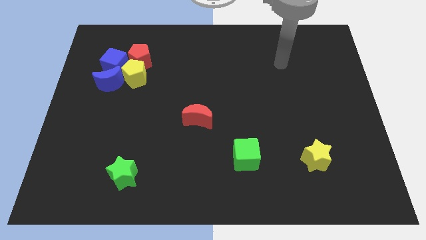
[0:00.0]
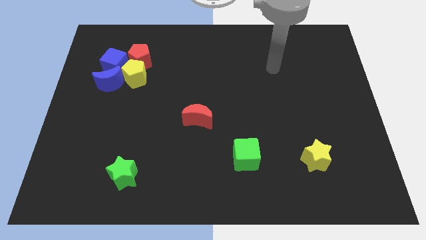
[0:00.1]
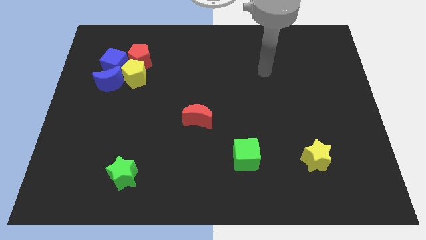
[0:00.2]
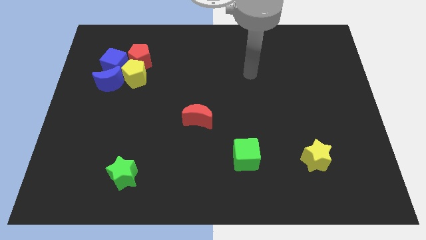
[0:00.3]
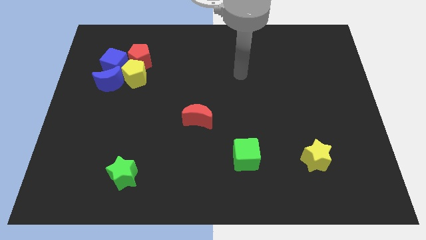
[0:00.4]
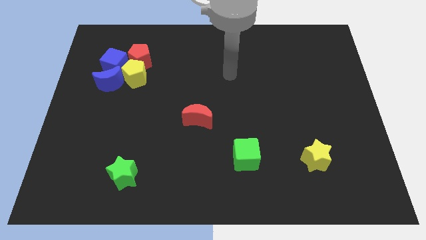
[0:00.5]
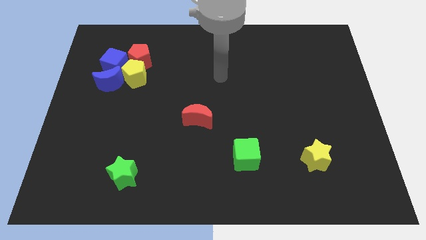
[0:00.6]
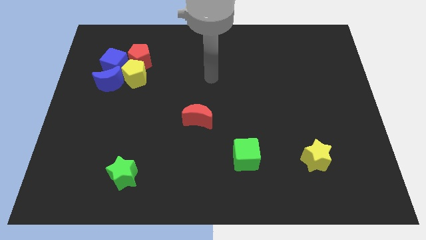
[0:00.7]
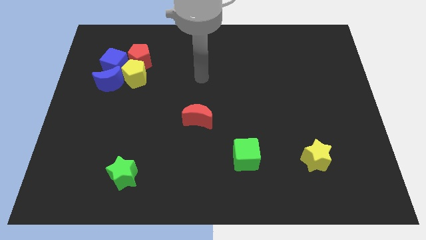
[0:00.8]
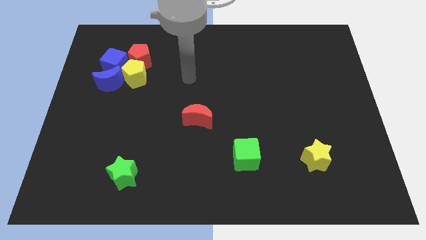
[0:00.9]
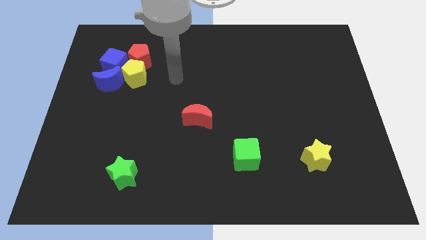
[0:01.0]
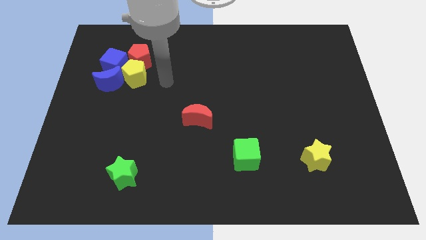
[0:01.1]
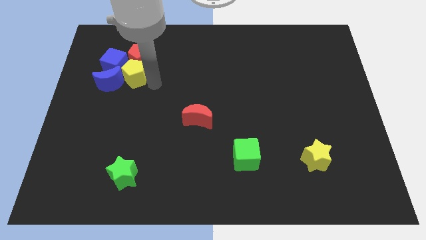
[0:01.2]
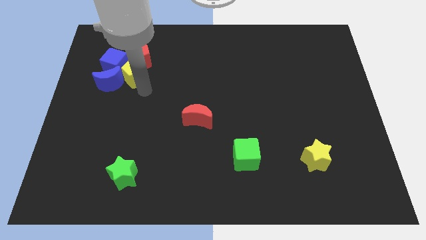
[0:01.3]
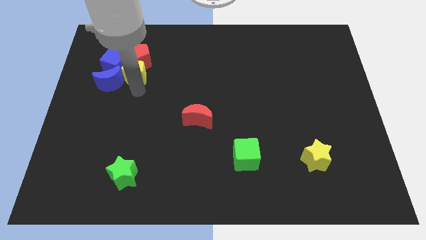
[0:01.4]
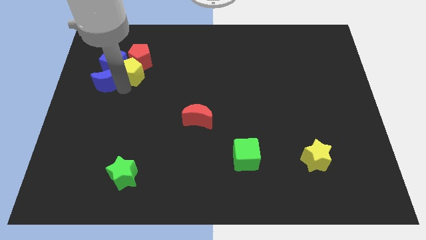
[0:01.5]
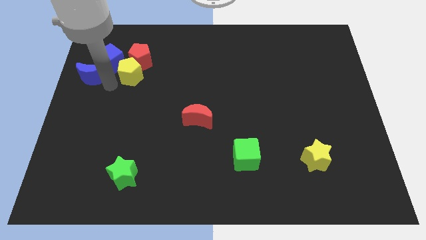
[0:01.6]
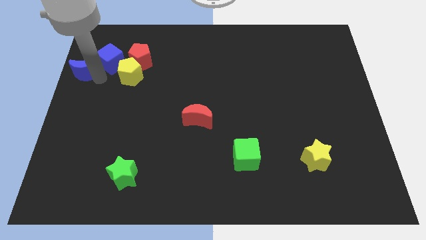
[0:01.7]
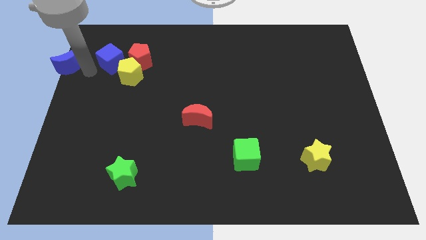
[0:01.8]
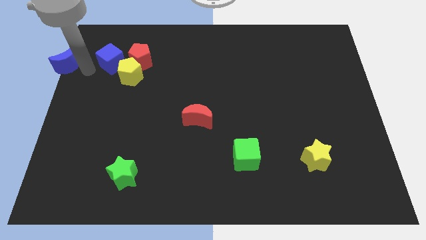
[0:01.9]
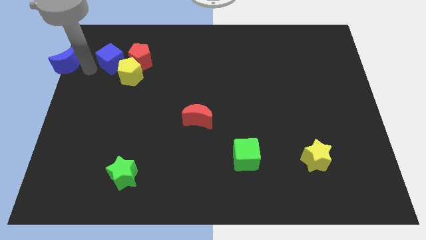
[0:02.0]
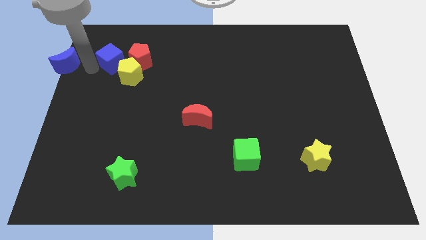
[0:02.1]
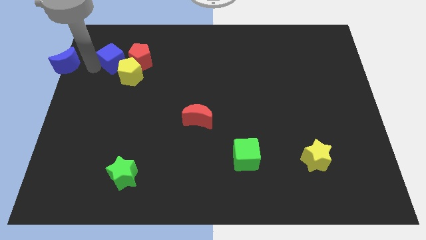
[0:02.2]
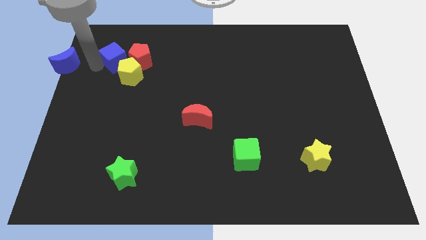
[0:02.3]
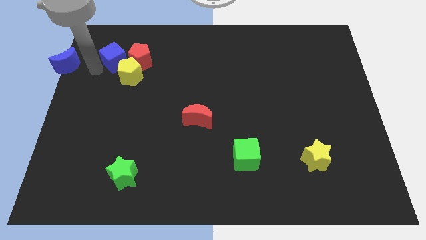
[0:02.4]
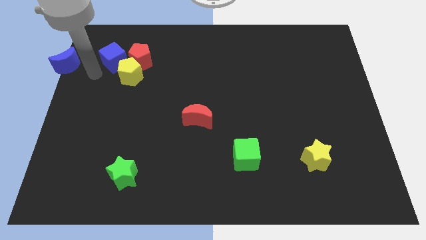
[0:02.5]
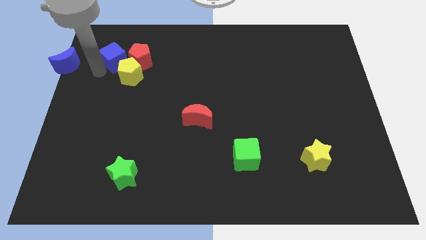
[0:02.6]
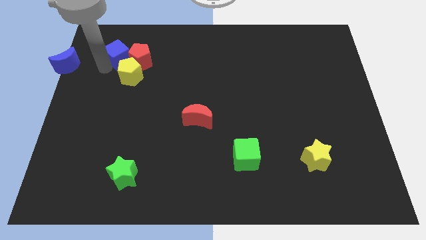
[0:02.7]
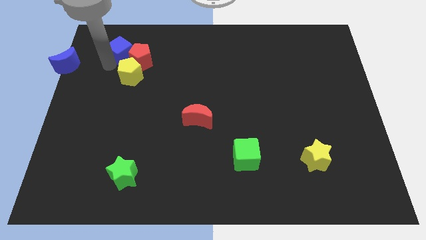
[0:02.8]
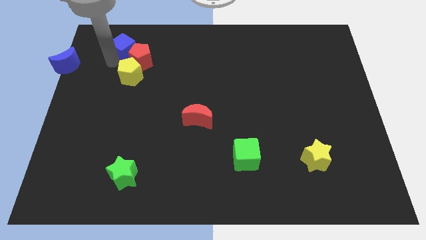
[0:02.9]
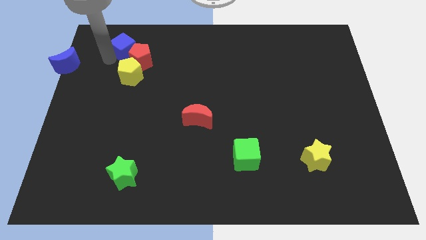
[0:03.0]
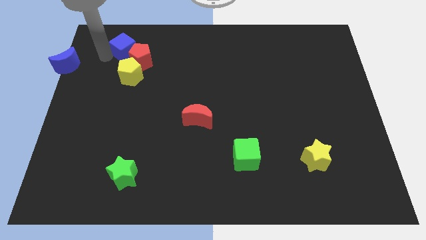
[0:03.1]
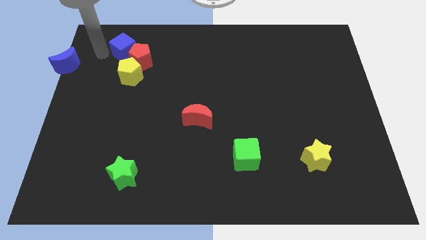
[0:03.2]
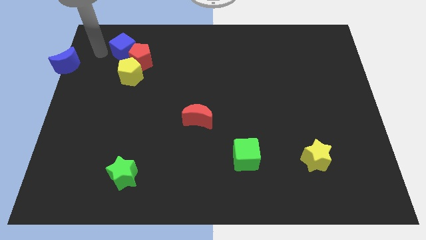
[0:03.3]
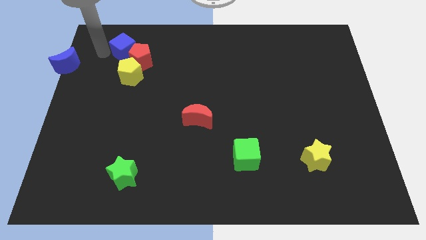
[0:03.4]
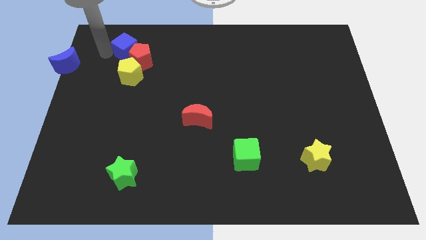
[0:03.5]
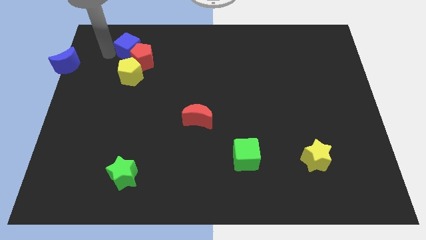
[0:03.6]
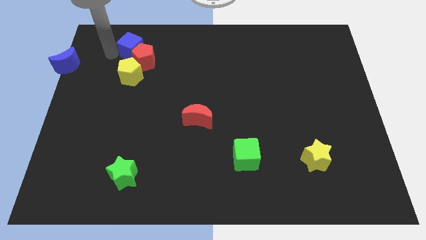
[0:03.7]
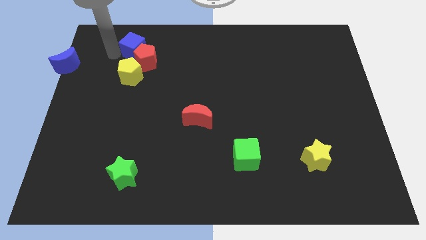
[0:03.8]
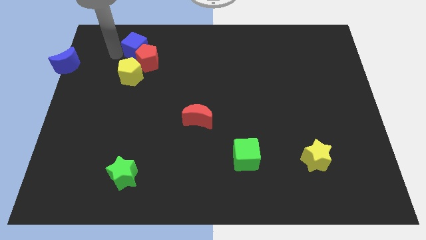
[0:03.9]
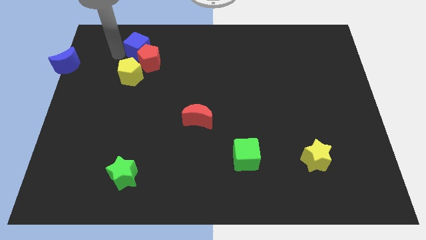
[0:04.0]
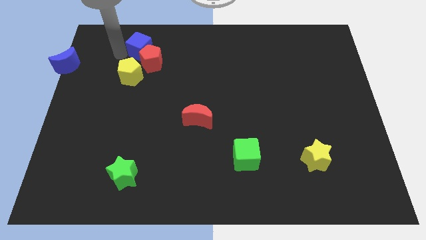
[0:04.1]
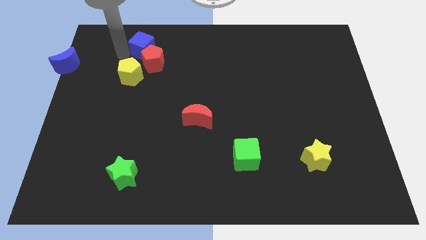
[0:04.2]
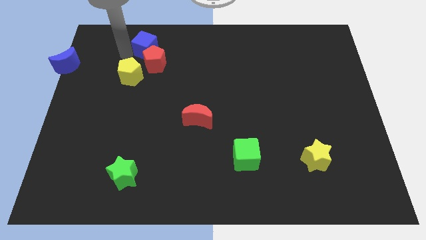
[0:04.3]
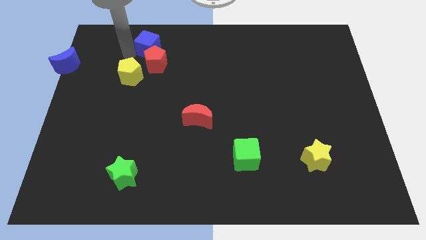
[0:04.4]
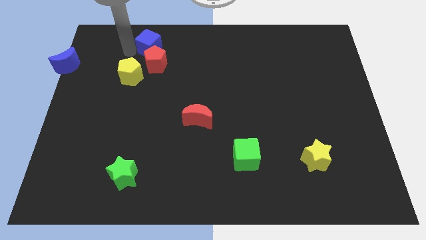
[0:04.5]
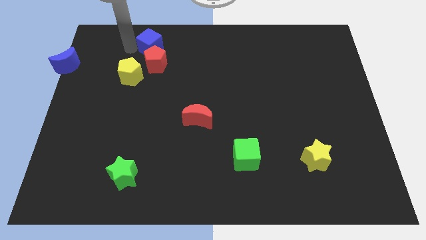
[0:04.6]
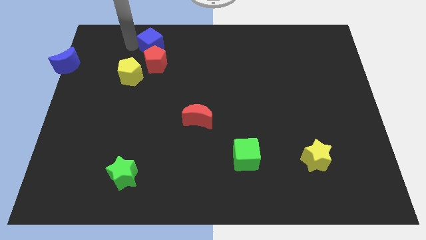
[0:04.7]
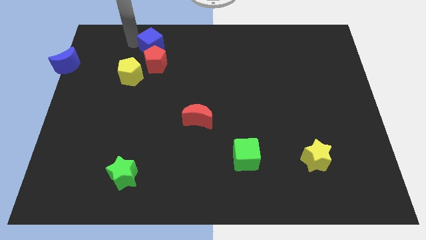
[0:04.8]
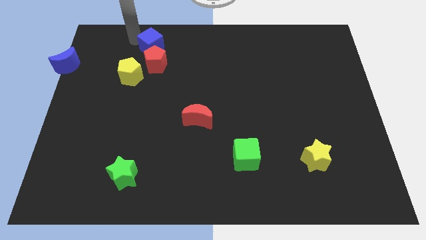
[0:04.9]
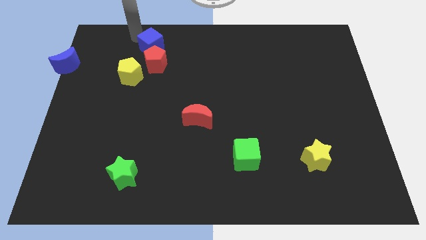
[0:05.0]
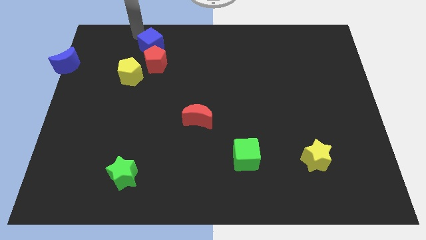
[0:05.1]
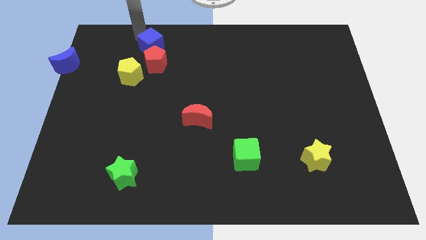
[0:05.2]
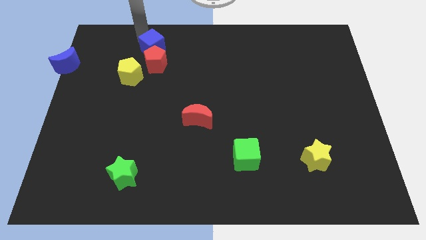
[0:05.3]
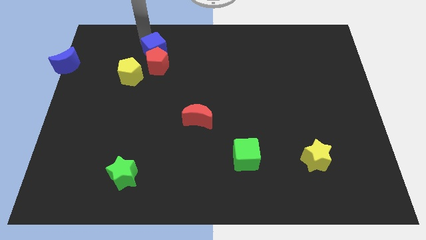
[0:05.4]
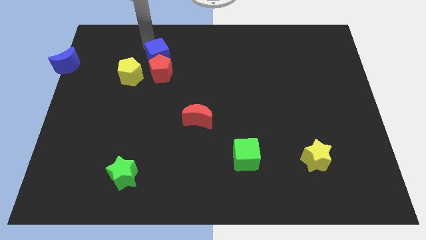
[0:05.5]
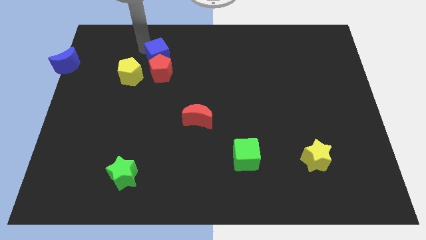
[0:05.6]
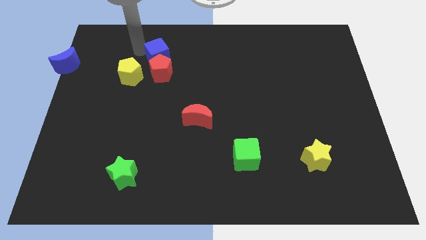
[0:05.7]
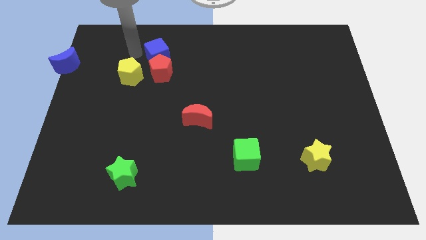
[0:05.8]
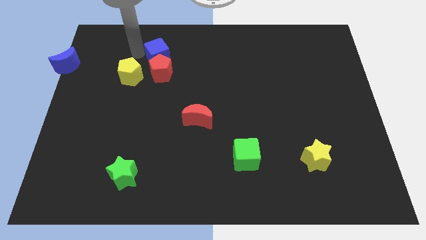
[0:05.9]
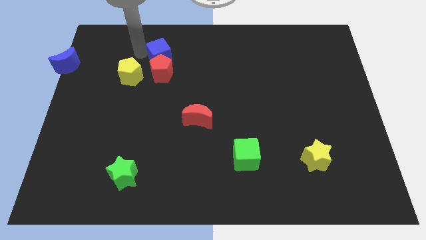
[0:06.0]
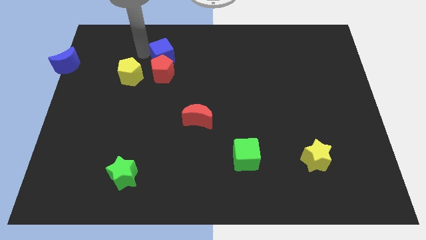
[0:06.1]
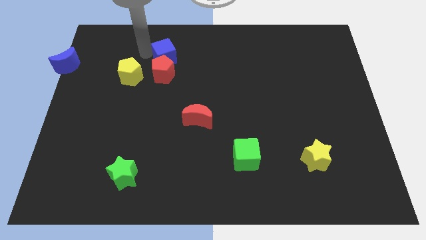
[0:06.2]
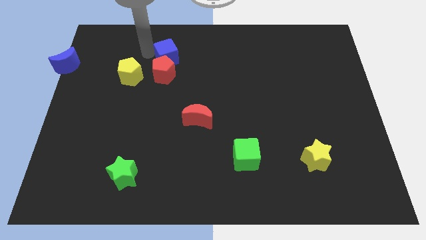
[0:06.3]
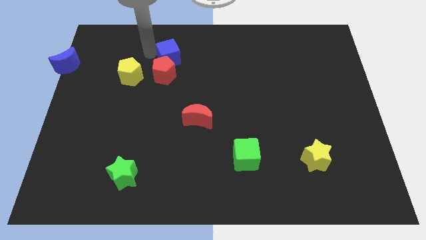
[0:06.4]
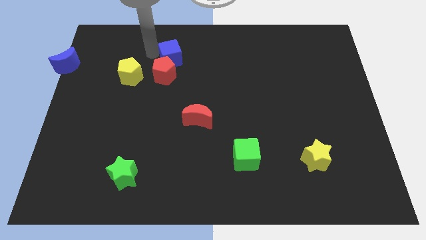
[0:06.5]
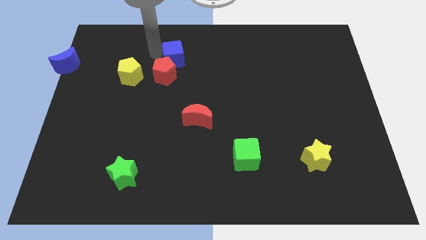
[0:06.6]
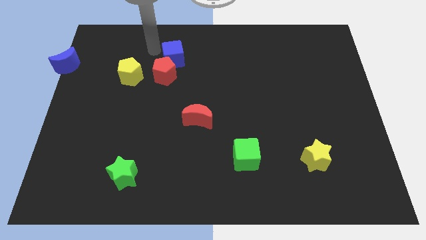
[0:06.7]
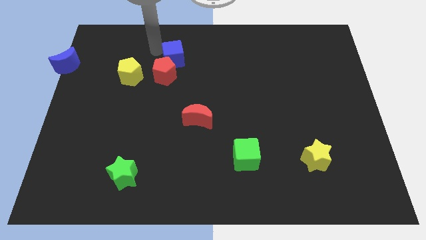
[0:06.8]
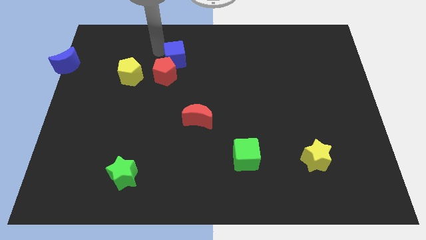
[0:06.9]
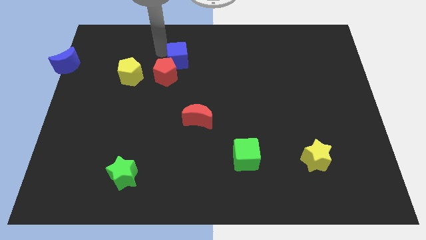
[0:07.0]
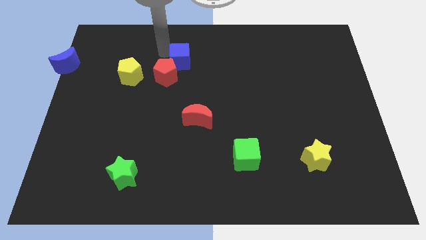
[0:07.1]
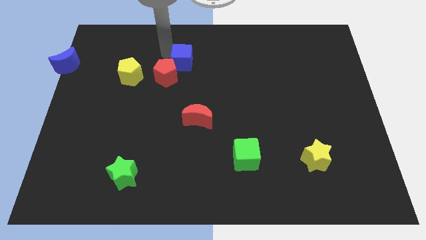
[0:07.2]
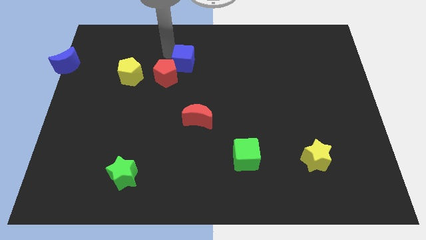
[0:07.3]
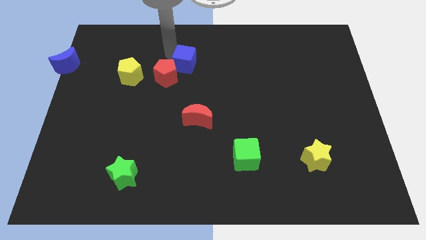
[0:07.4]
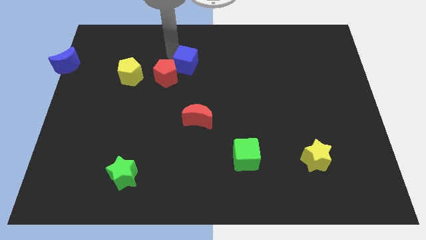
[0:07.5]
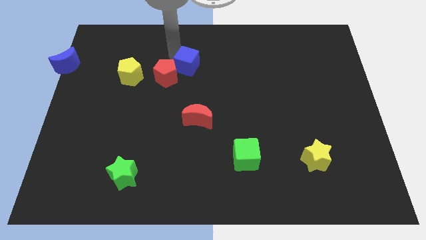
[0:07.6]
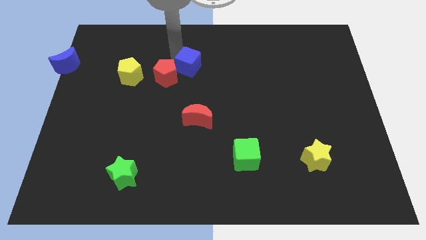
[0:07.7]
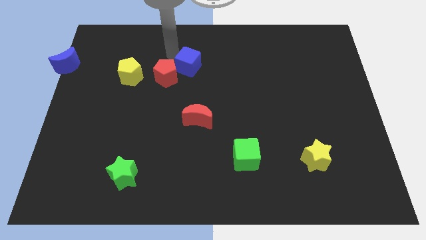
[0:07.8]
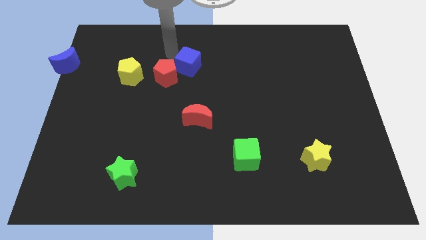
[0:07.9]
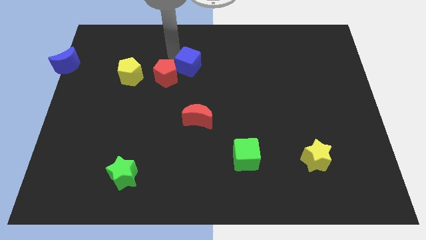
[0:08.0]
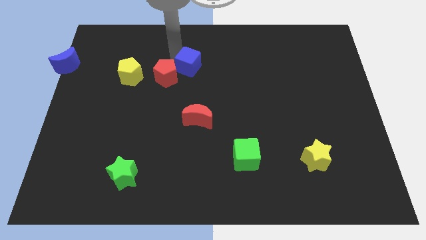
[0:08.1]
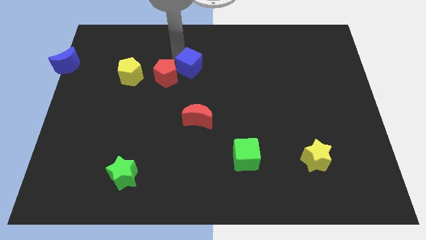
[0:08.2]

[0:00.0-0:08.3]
move the blue cube to the middle of the board
